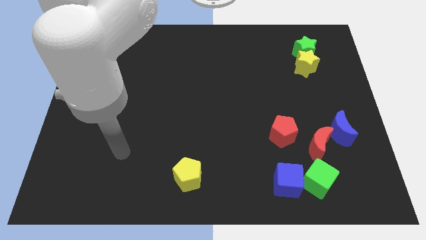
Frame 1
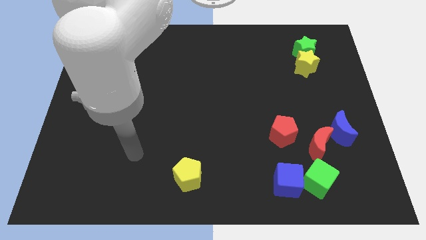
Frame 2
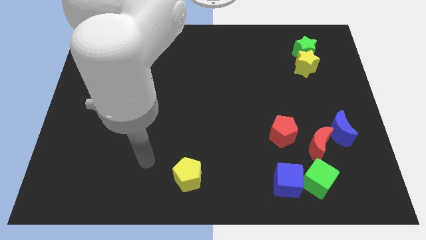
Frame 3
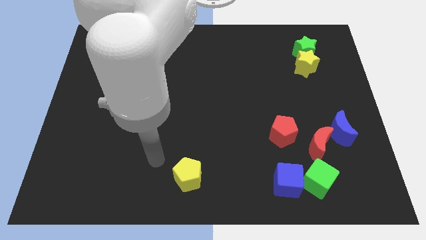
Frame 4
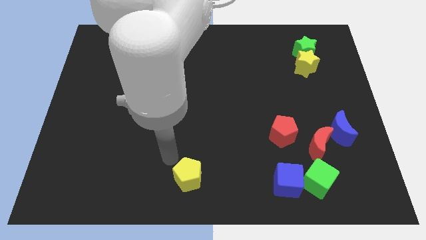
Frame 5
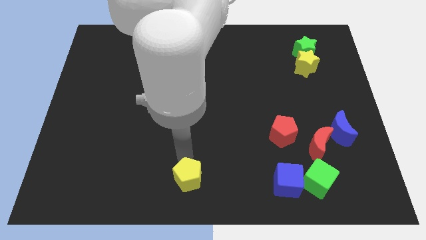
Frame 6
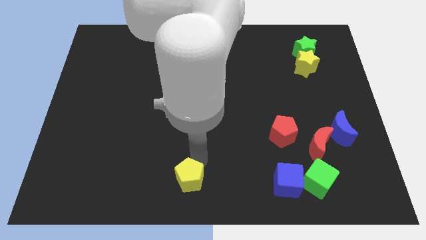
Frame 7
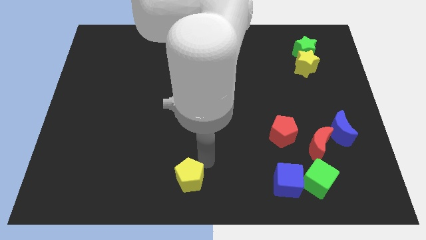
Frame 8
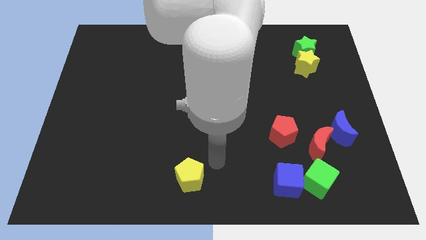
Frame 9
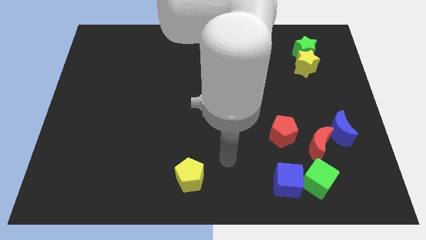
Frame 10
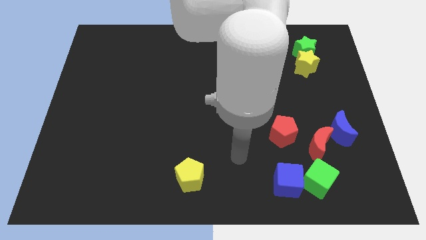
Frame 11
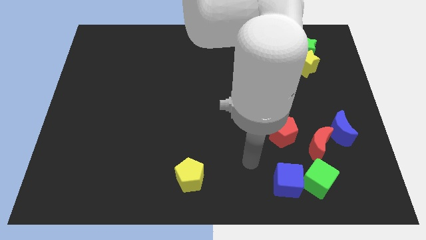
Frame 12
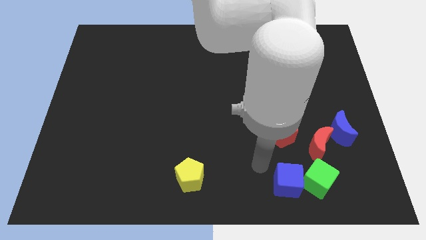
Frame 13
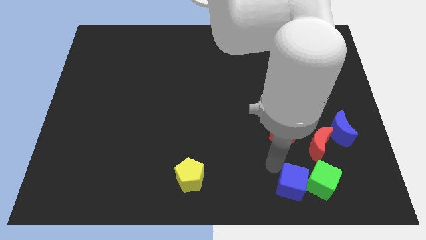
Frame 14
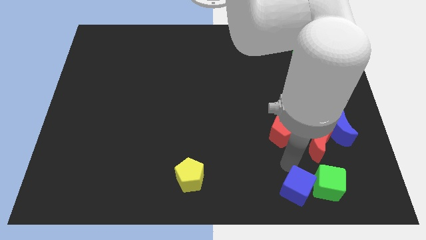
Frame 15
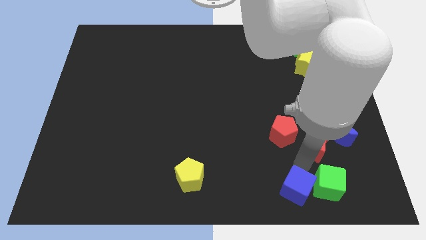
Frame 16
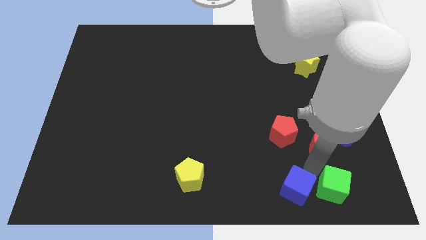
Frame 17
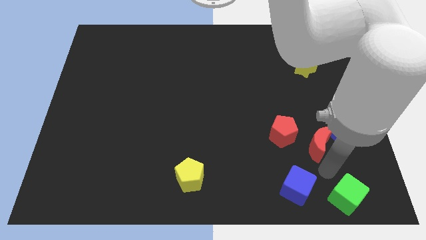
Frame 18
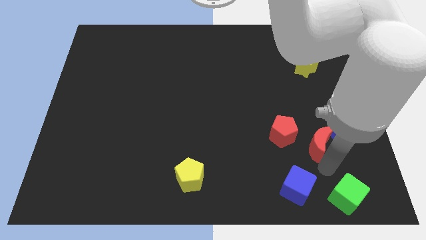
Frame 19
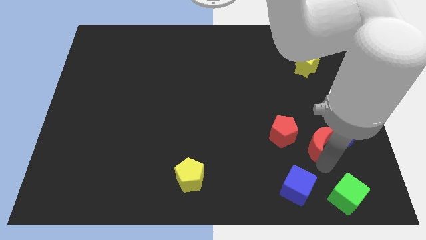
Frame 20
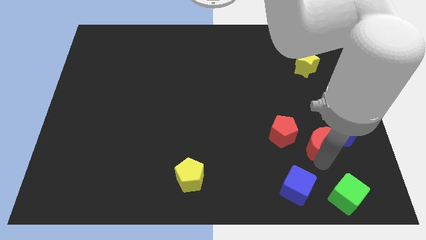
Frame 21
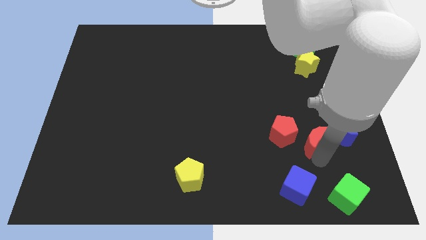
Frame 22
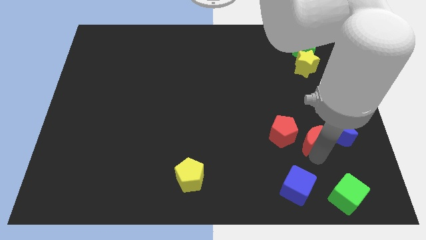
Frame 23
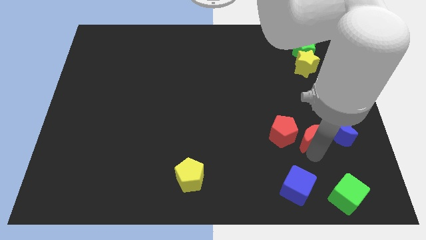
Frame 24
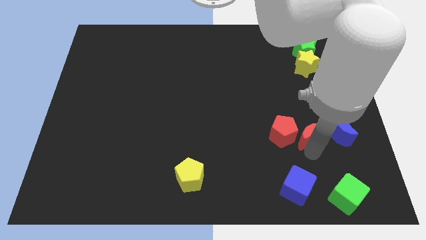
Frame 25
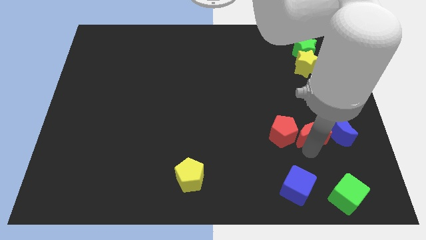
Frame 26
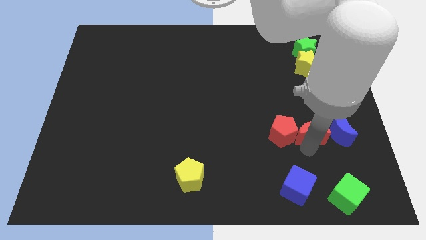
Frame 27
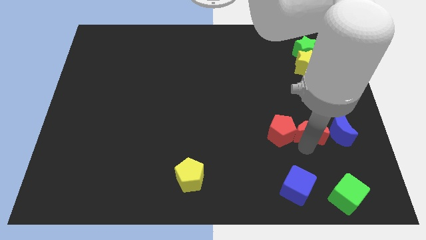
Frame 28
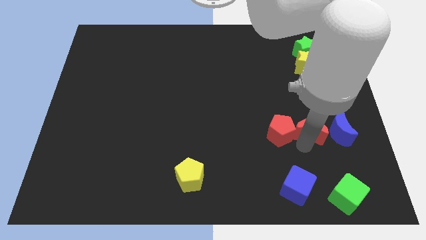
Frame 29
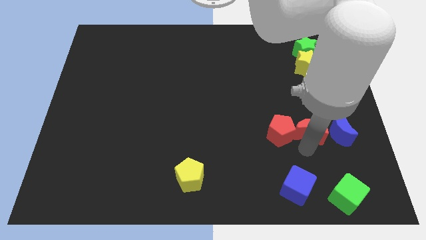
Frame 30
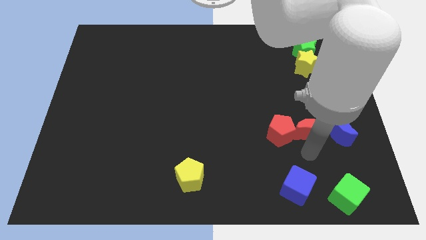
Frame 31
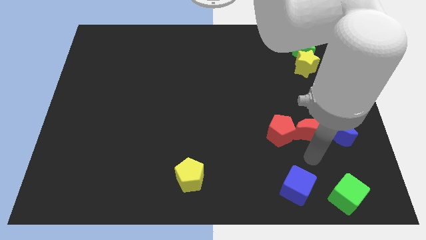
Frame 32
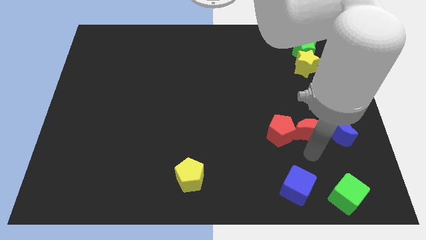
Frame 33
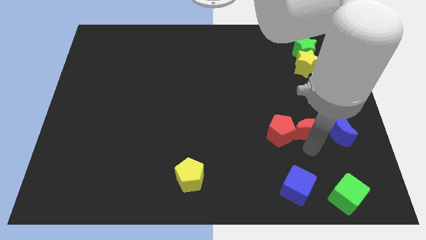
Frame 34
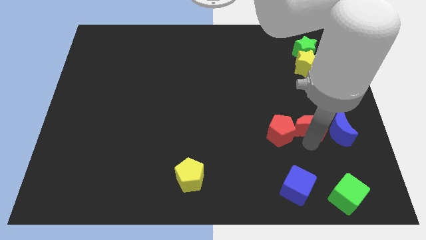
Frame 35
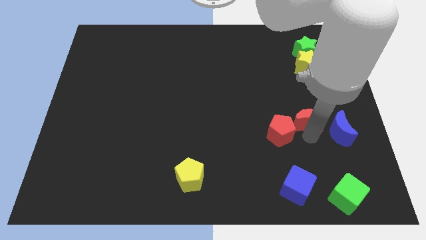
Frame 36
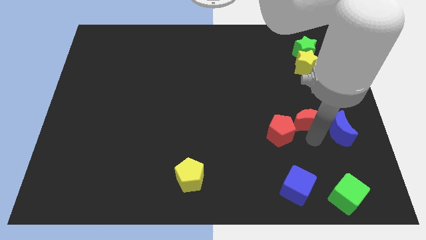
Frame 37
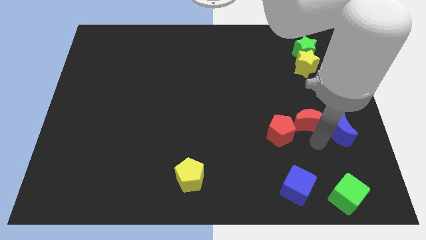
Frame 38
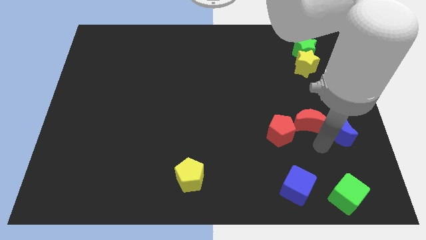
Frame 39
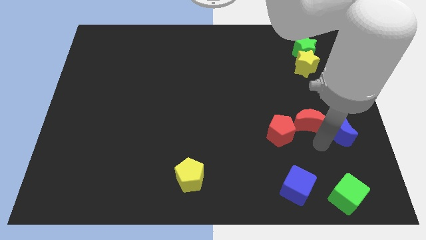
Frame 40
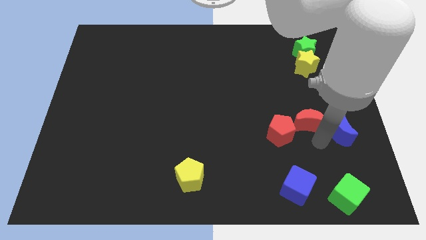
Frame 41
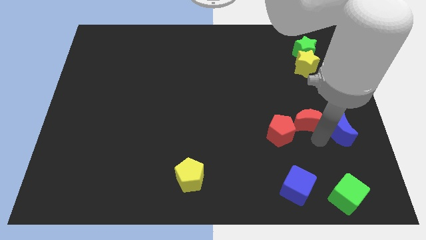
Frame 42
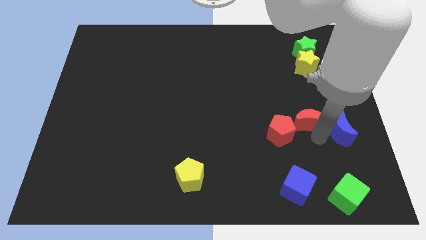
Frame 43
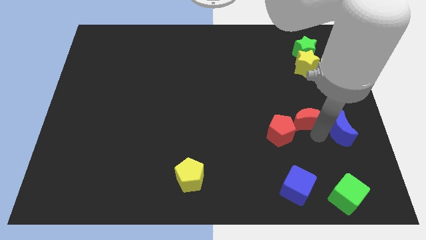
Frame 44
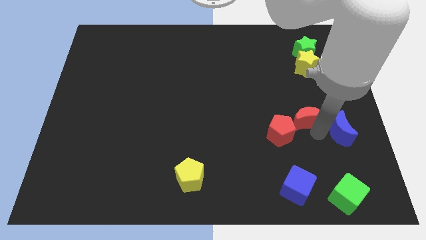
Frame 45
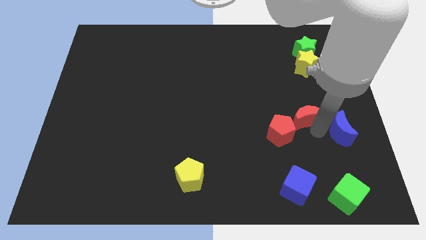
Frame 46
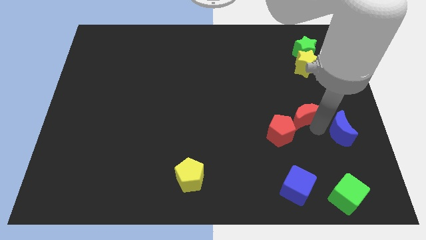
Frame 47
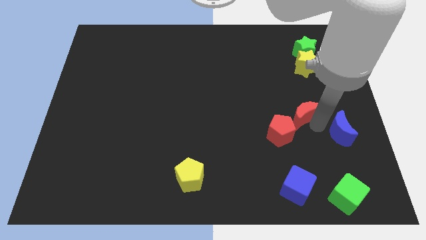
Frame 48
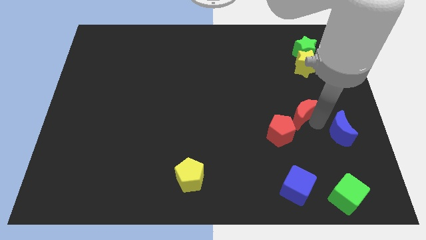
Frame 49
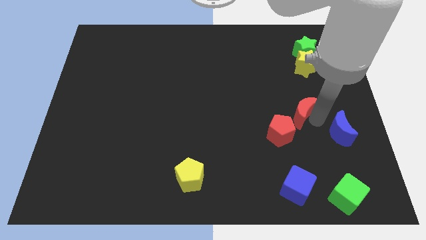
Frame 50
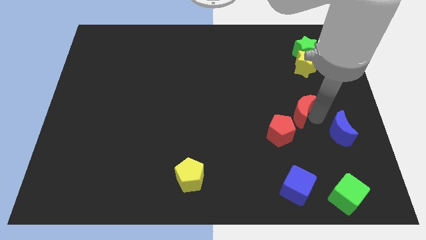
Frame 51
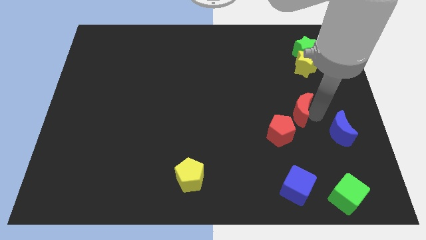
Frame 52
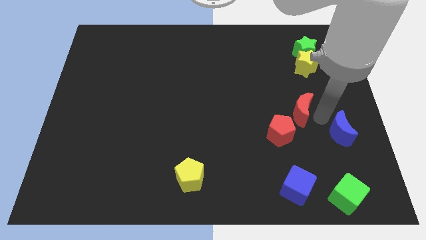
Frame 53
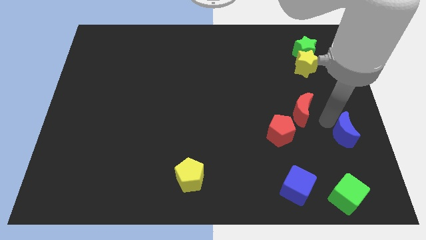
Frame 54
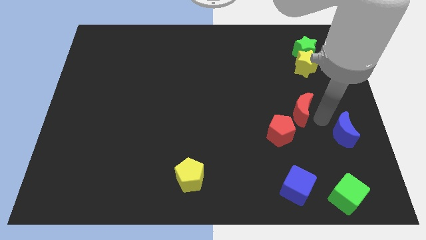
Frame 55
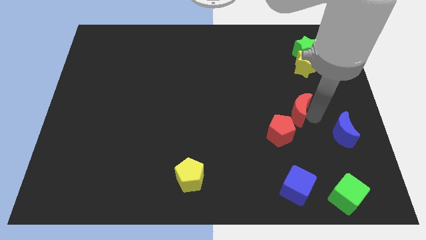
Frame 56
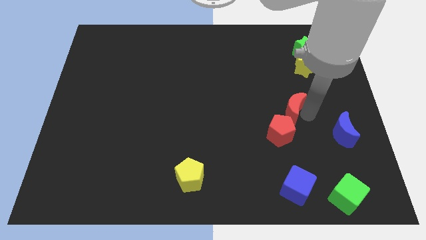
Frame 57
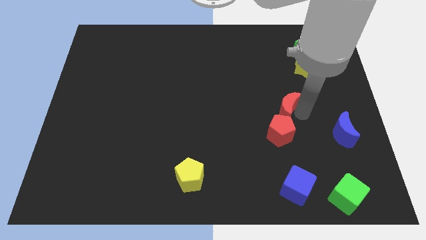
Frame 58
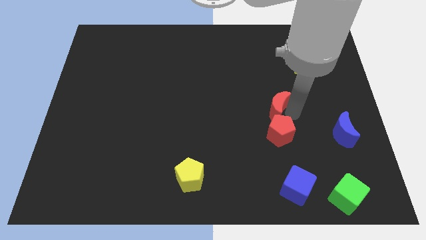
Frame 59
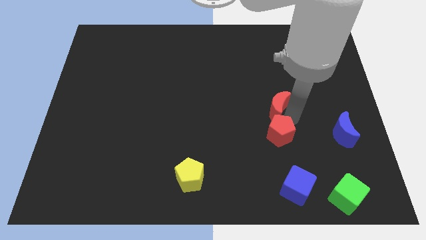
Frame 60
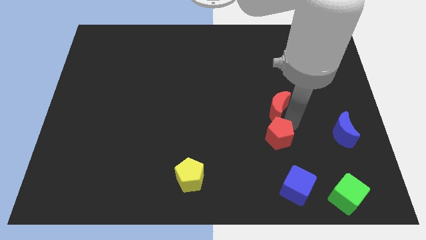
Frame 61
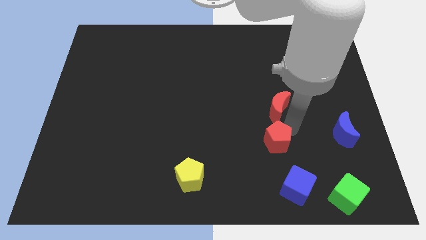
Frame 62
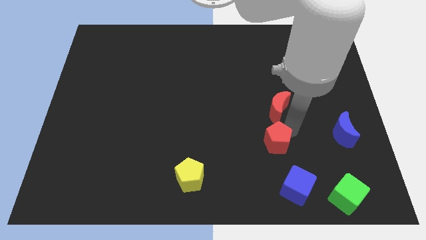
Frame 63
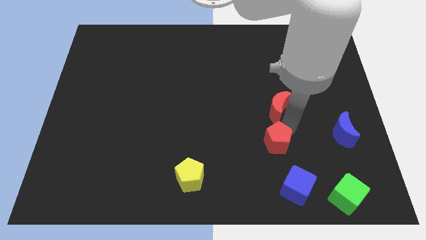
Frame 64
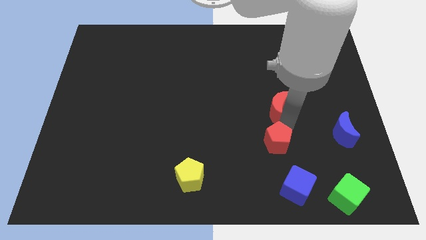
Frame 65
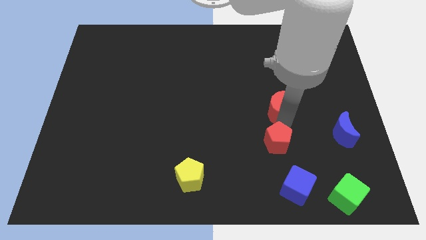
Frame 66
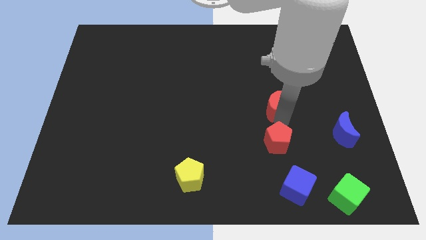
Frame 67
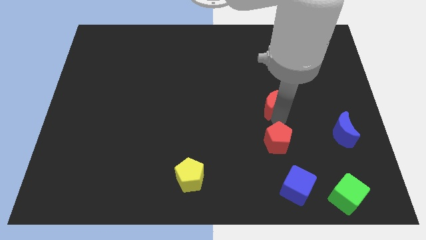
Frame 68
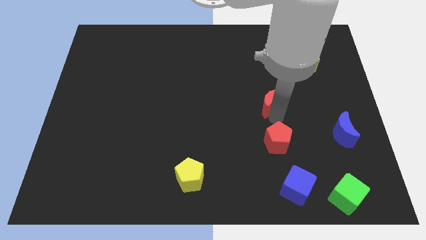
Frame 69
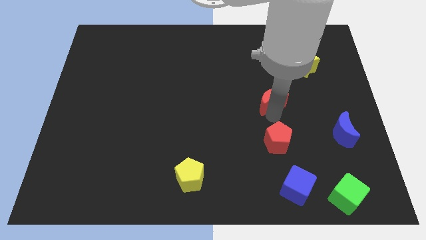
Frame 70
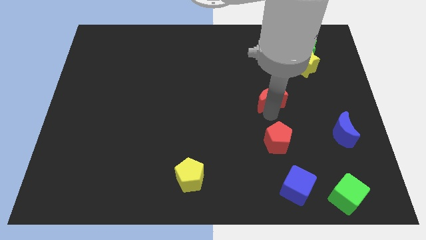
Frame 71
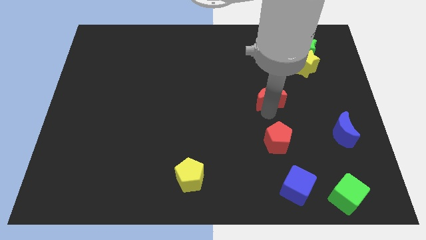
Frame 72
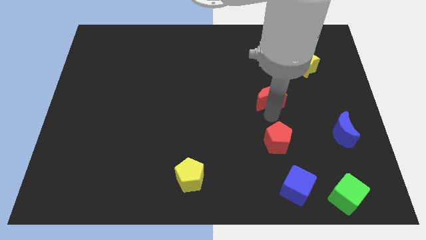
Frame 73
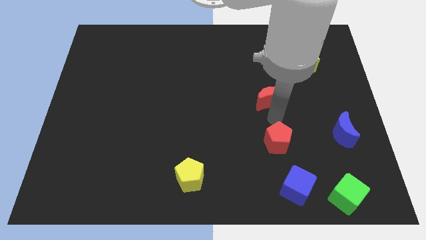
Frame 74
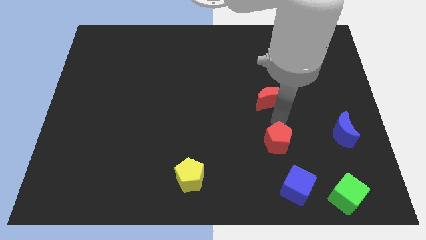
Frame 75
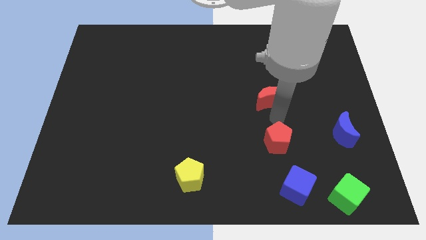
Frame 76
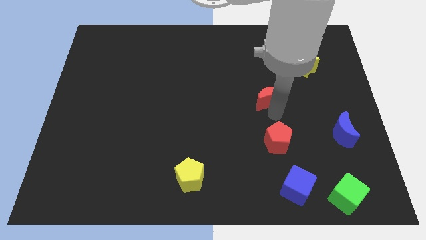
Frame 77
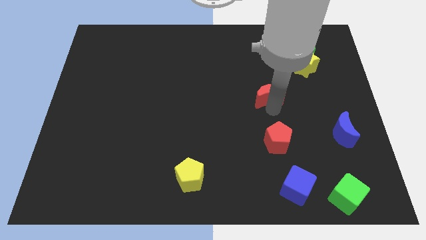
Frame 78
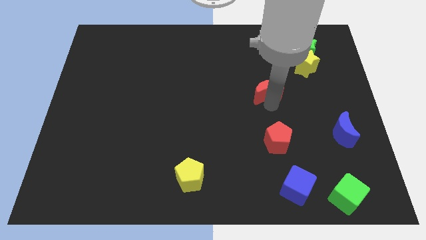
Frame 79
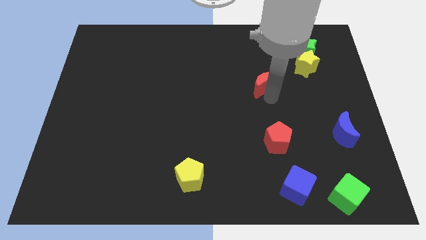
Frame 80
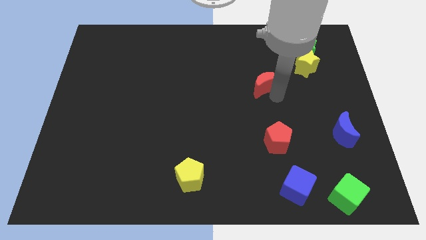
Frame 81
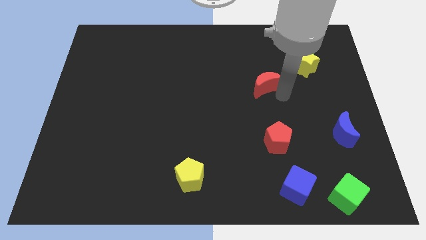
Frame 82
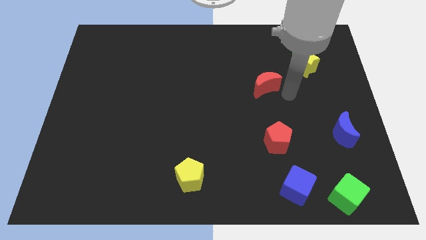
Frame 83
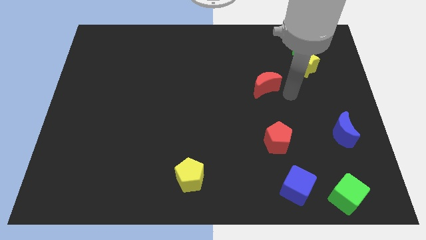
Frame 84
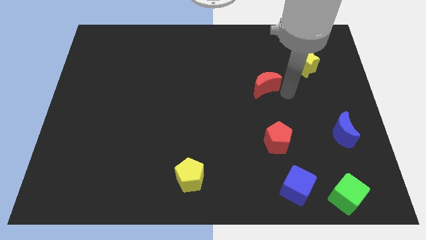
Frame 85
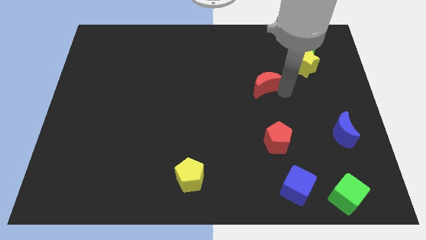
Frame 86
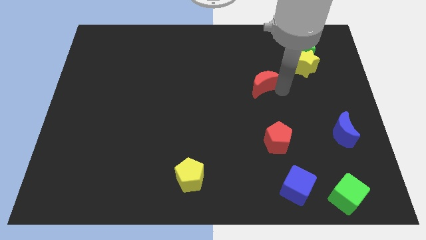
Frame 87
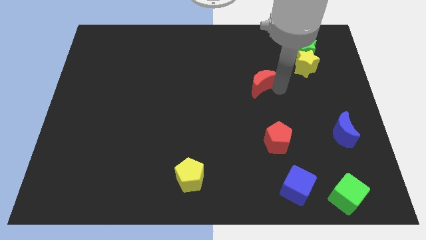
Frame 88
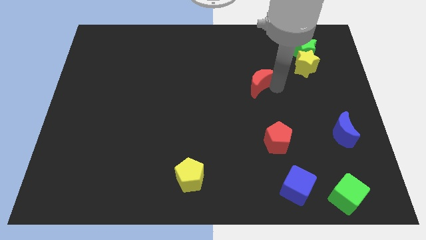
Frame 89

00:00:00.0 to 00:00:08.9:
move the red moon up and then to the left
